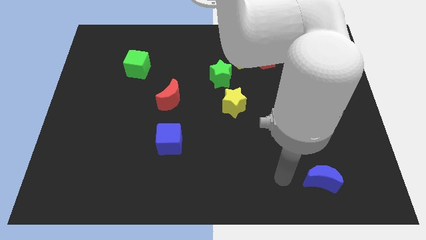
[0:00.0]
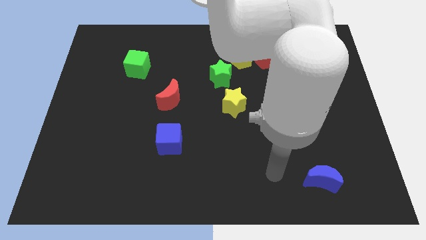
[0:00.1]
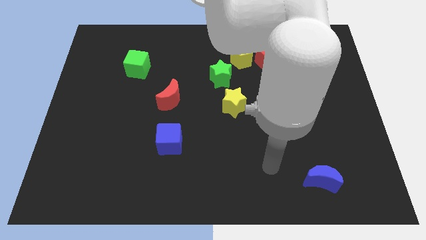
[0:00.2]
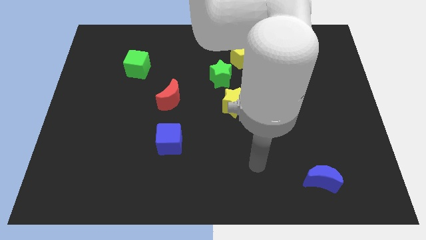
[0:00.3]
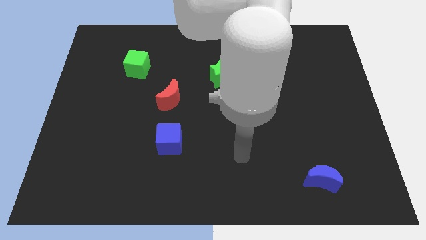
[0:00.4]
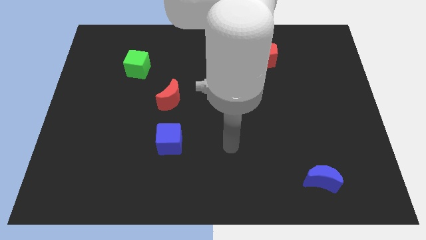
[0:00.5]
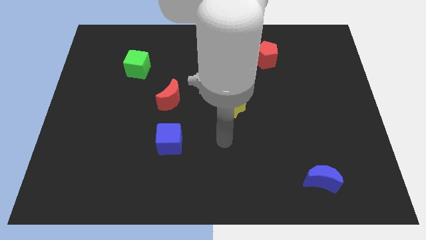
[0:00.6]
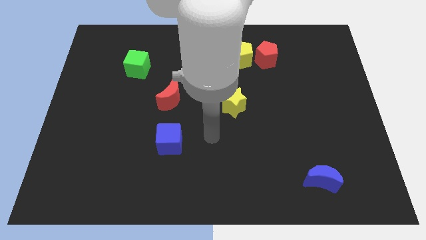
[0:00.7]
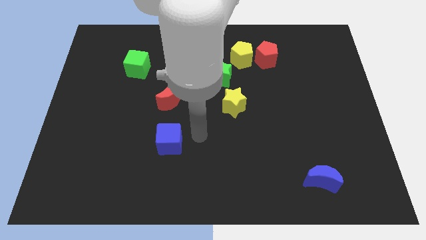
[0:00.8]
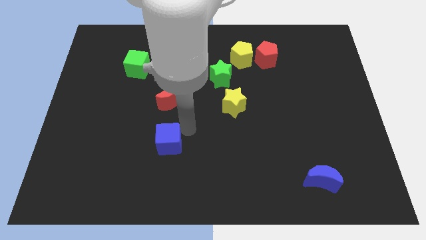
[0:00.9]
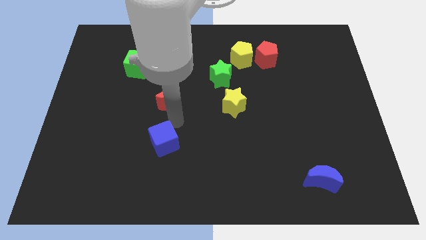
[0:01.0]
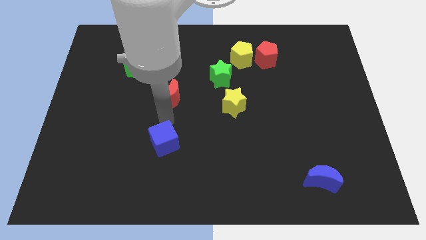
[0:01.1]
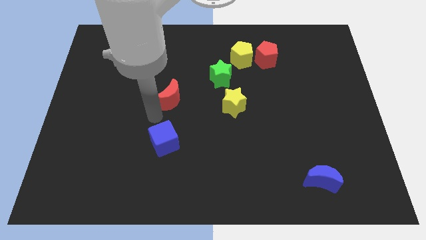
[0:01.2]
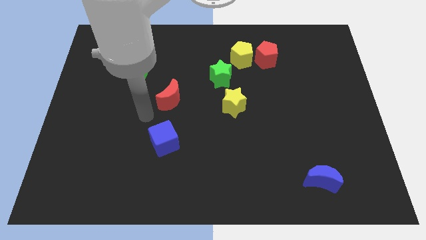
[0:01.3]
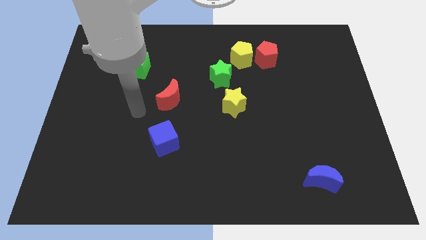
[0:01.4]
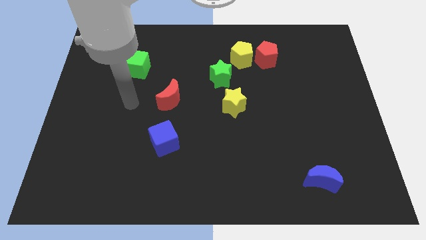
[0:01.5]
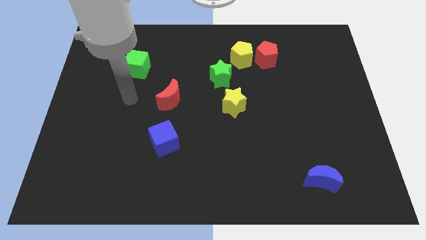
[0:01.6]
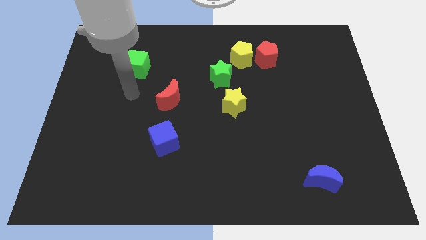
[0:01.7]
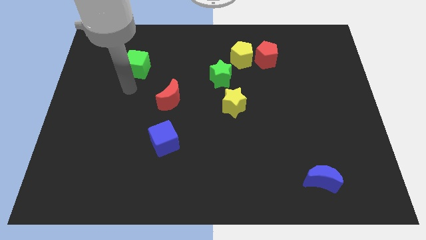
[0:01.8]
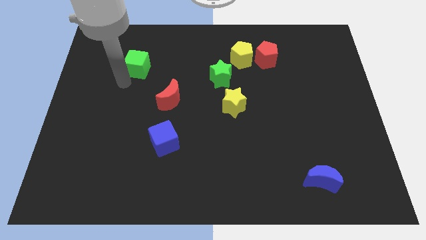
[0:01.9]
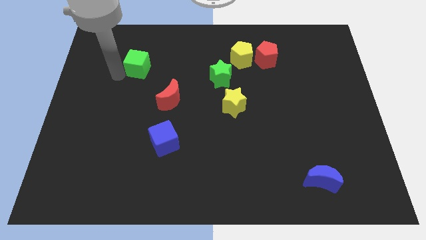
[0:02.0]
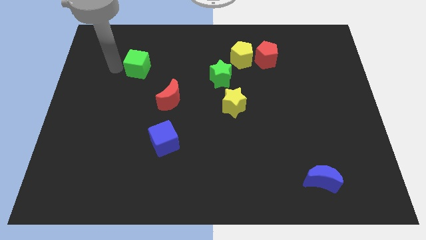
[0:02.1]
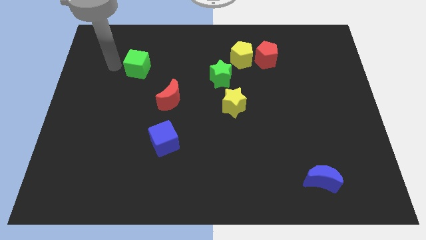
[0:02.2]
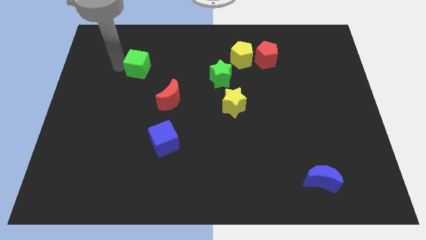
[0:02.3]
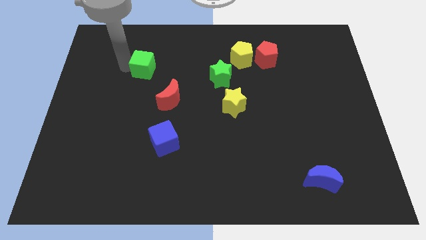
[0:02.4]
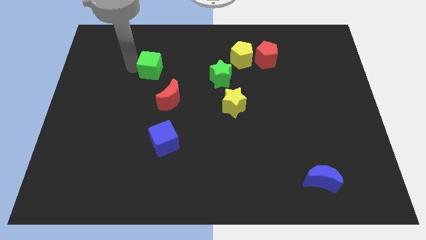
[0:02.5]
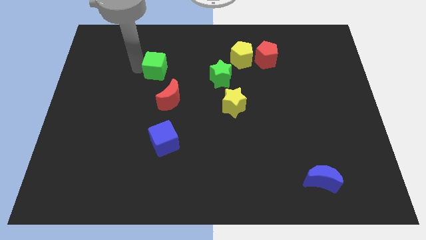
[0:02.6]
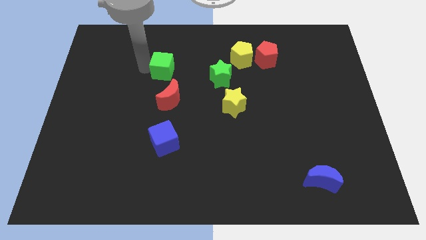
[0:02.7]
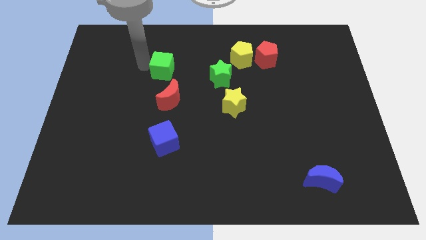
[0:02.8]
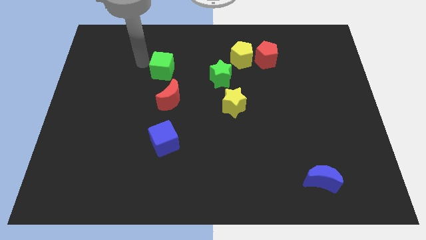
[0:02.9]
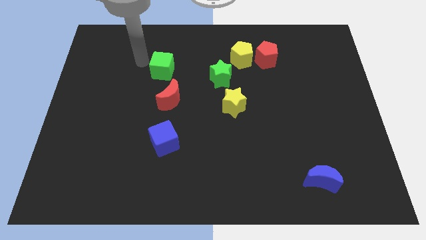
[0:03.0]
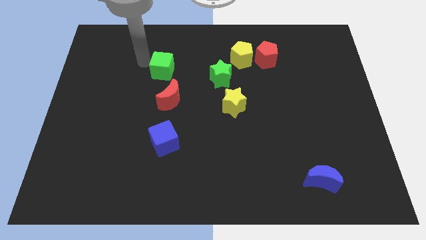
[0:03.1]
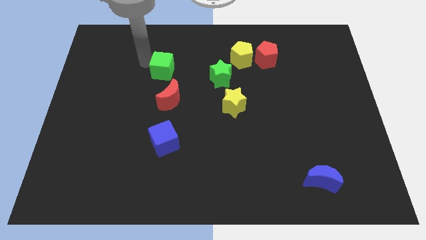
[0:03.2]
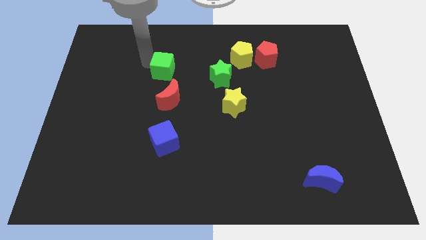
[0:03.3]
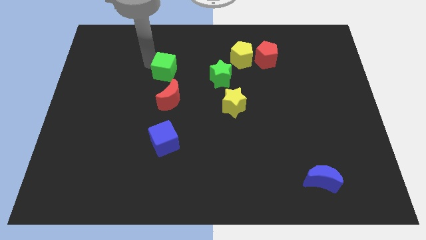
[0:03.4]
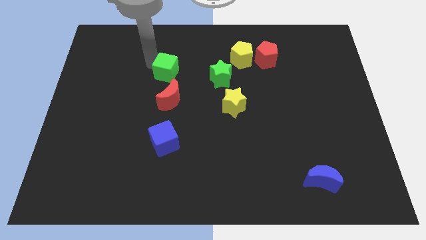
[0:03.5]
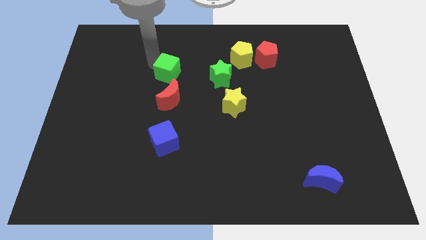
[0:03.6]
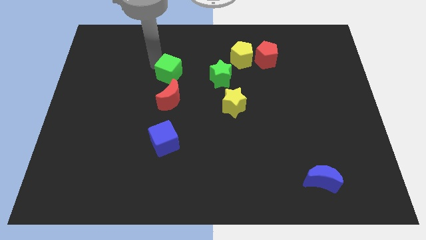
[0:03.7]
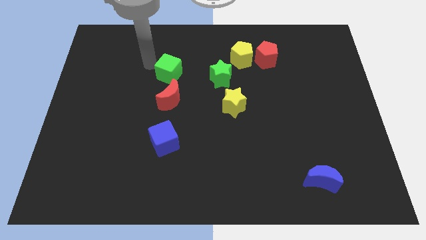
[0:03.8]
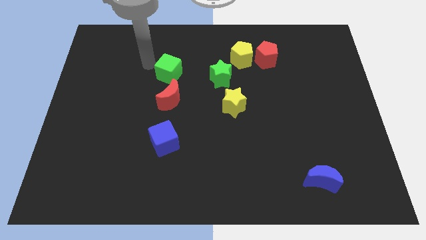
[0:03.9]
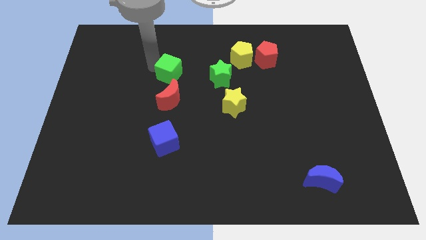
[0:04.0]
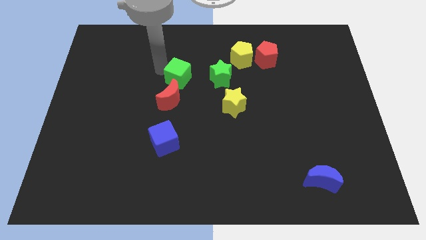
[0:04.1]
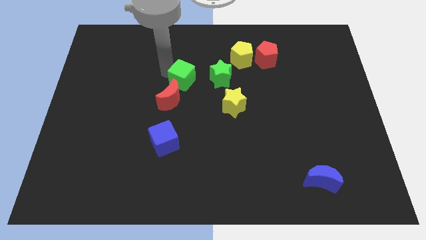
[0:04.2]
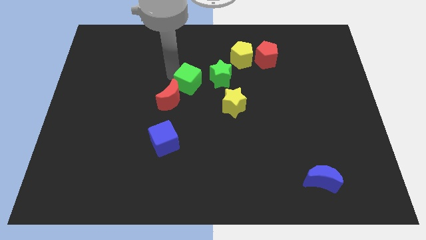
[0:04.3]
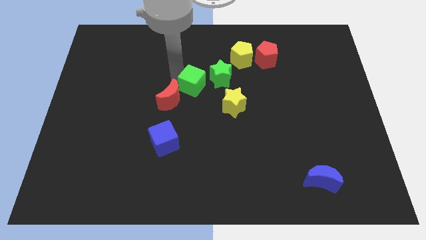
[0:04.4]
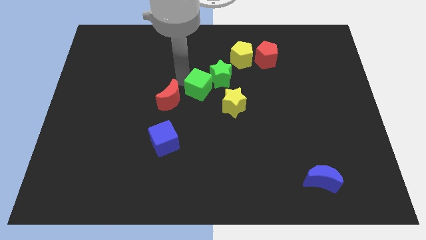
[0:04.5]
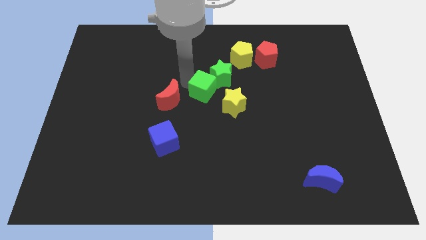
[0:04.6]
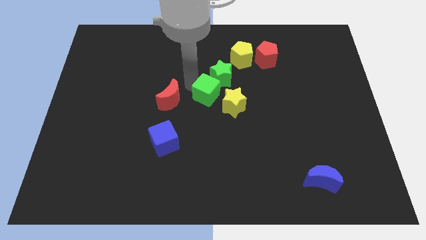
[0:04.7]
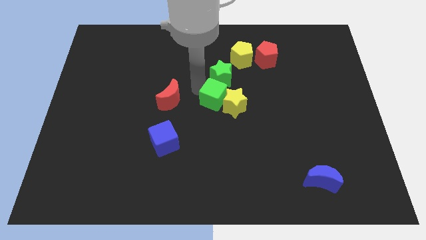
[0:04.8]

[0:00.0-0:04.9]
put the green cube close to the yellow star

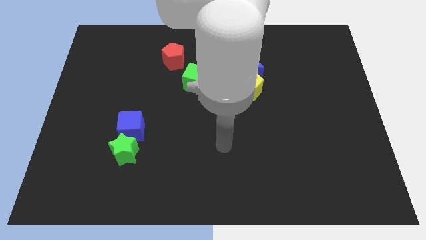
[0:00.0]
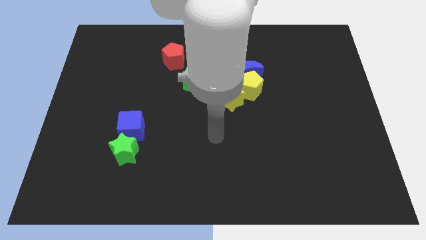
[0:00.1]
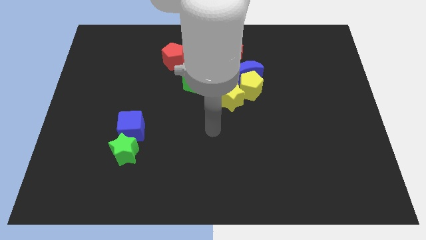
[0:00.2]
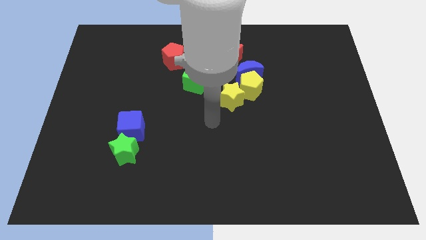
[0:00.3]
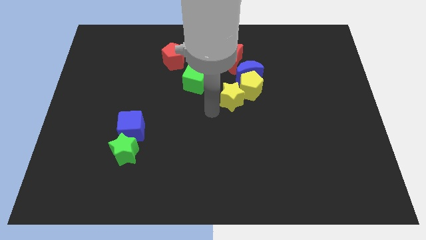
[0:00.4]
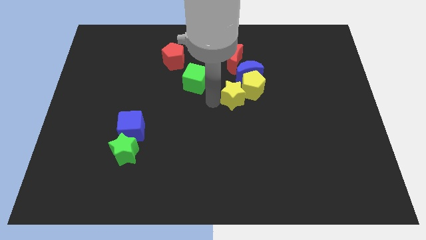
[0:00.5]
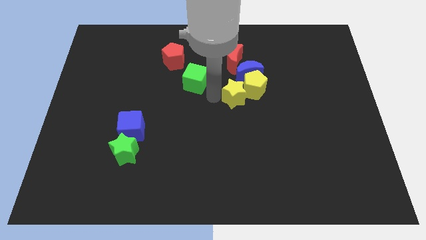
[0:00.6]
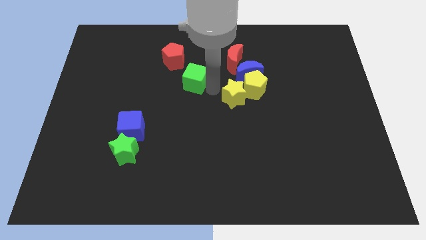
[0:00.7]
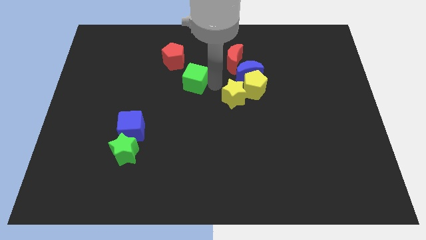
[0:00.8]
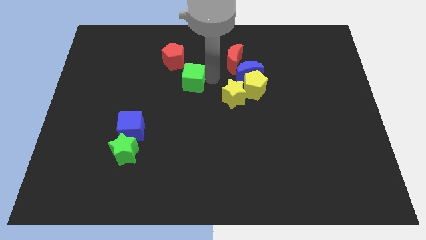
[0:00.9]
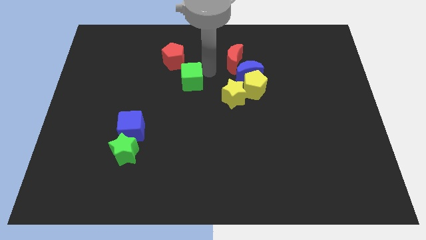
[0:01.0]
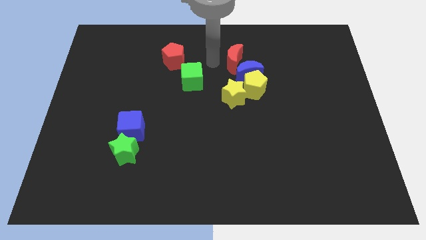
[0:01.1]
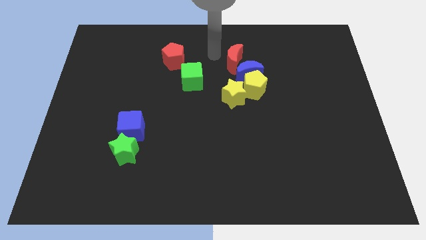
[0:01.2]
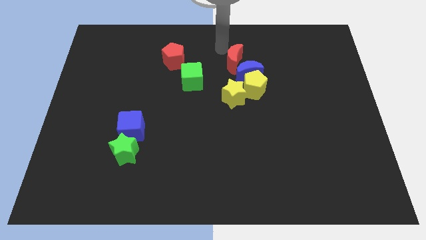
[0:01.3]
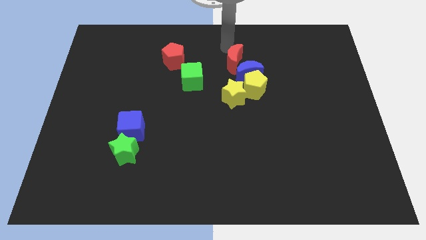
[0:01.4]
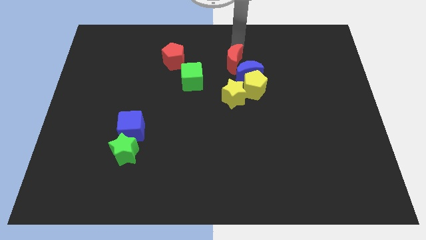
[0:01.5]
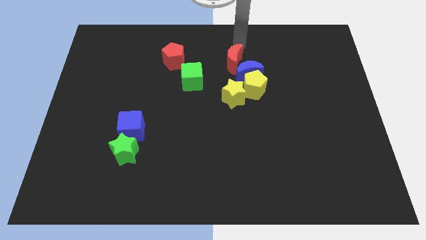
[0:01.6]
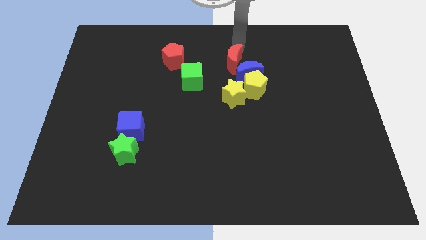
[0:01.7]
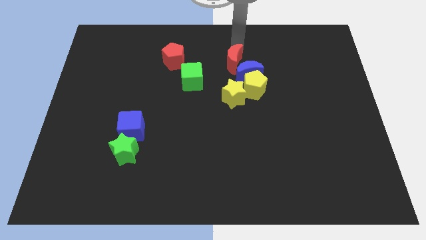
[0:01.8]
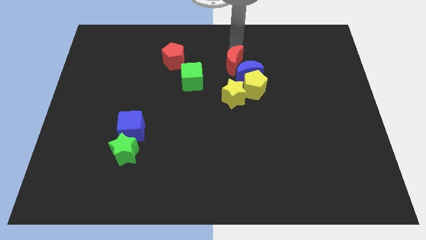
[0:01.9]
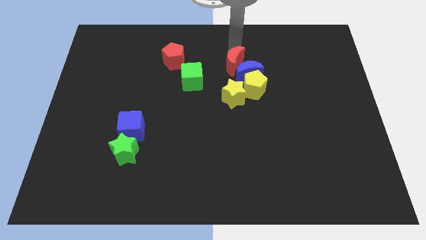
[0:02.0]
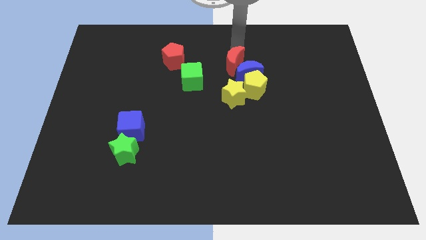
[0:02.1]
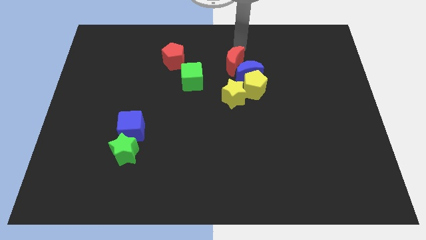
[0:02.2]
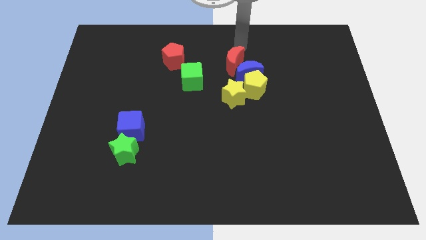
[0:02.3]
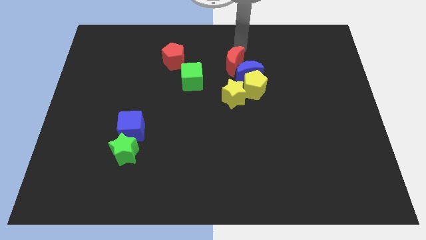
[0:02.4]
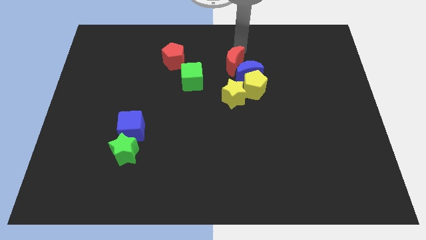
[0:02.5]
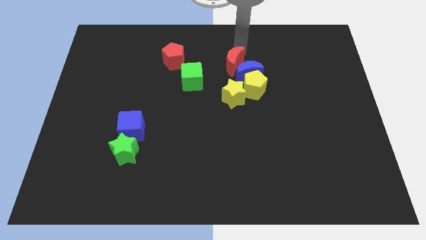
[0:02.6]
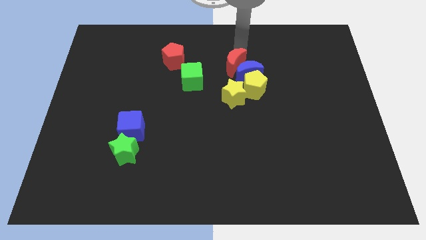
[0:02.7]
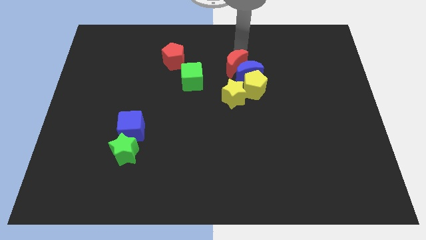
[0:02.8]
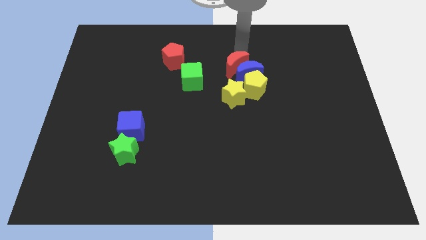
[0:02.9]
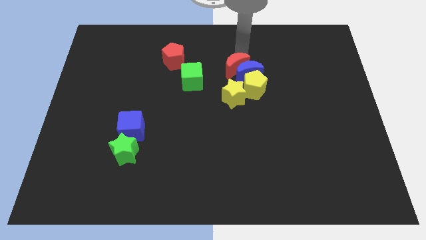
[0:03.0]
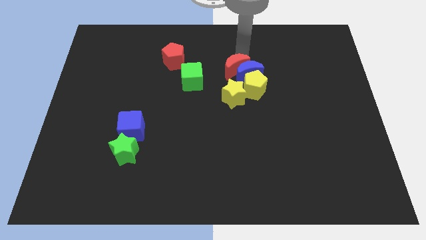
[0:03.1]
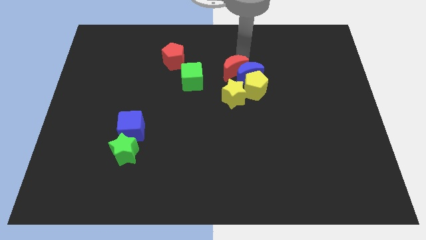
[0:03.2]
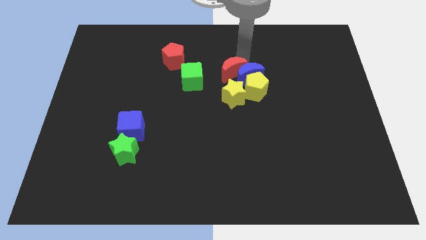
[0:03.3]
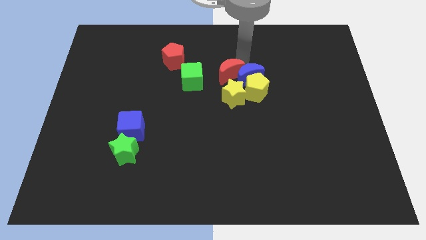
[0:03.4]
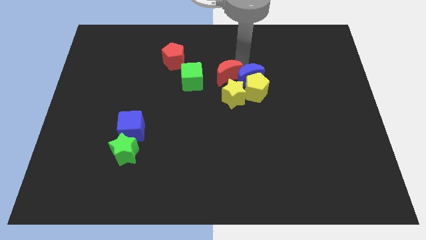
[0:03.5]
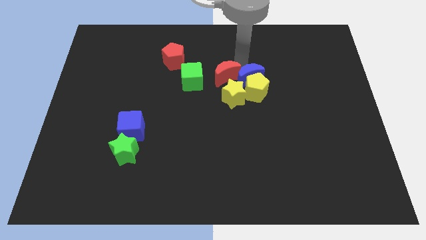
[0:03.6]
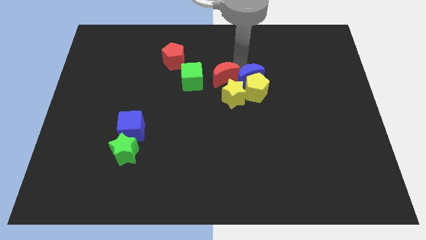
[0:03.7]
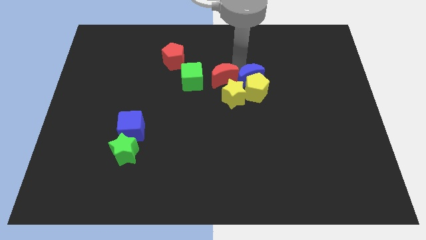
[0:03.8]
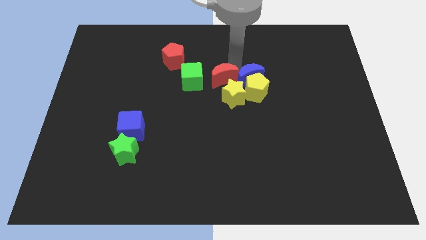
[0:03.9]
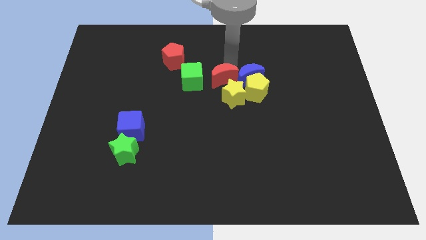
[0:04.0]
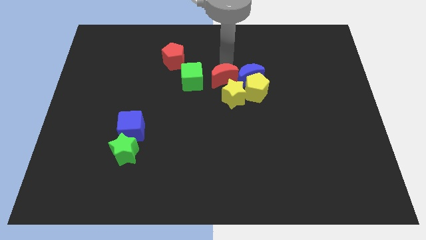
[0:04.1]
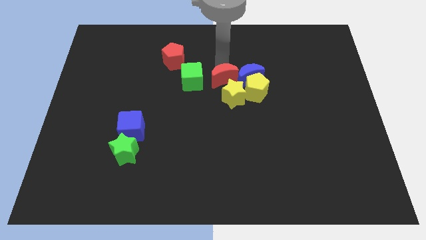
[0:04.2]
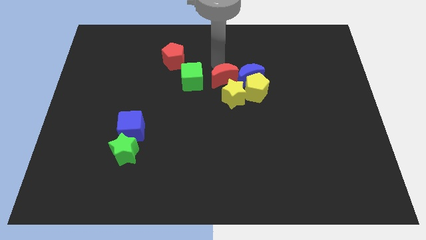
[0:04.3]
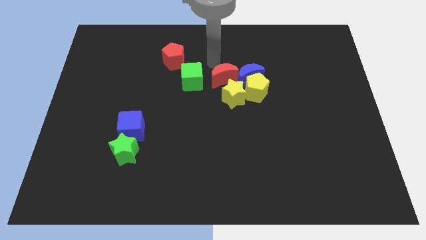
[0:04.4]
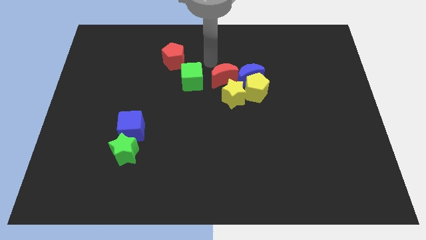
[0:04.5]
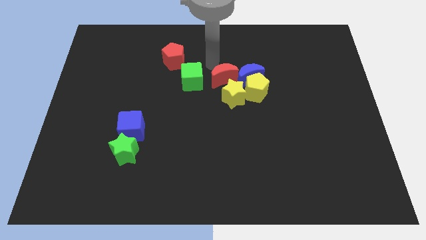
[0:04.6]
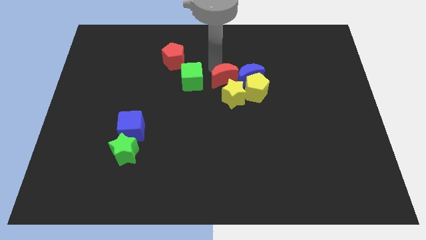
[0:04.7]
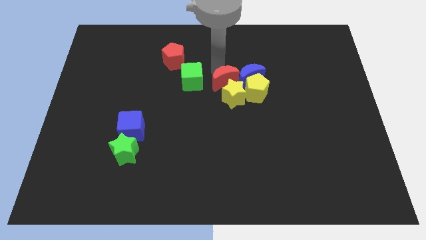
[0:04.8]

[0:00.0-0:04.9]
put the red moon to the yellow star
